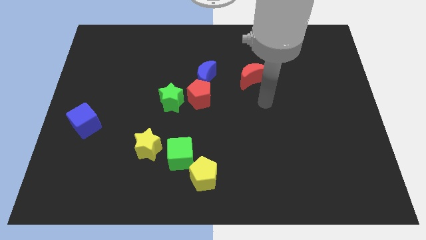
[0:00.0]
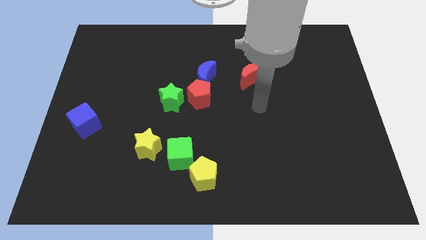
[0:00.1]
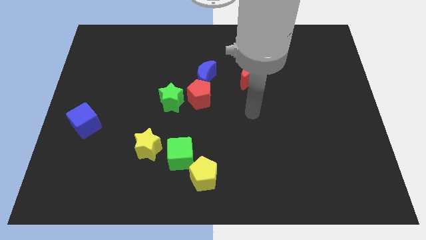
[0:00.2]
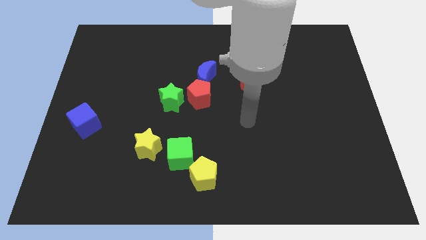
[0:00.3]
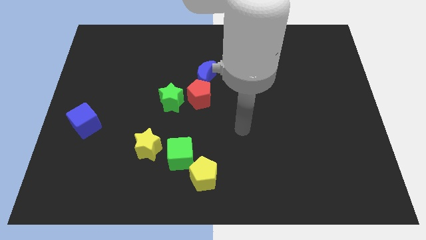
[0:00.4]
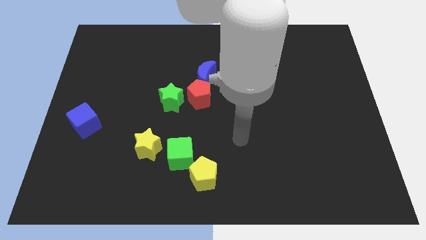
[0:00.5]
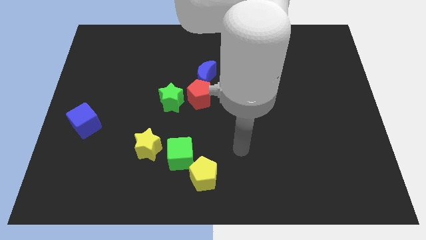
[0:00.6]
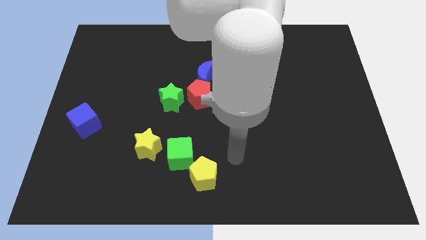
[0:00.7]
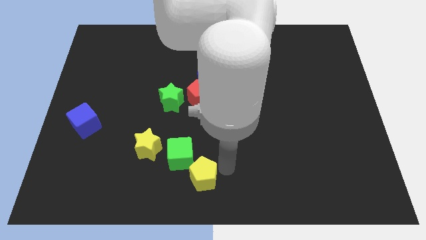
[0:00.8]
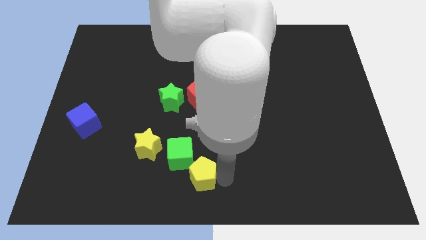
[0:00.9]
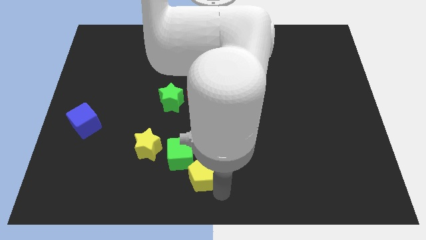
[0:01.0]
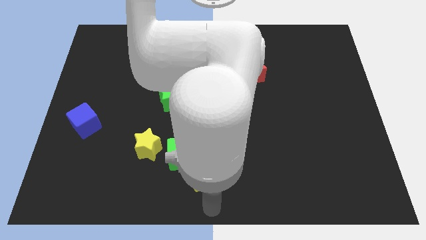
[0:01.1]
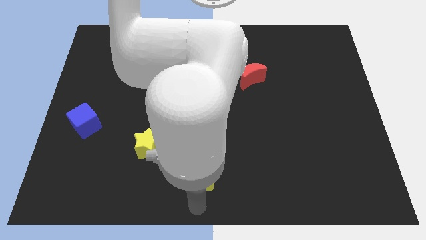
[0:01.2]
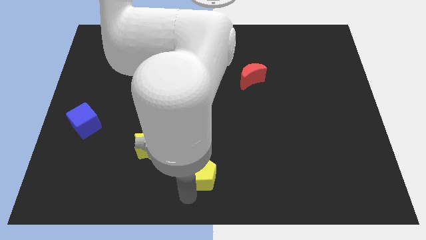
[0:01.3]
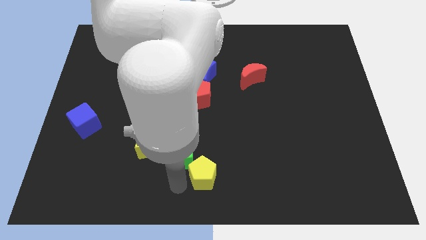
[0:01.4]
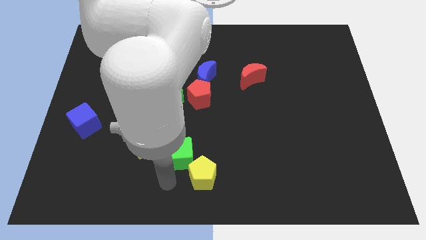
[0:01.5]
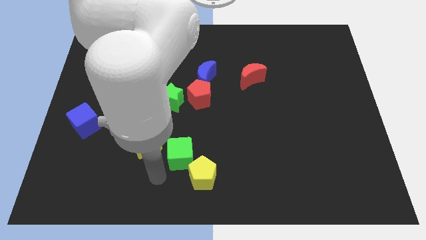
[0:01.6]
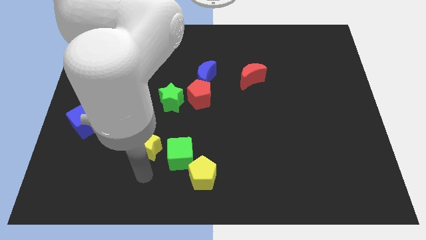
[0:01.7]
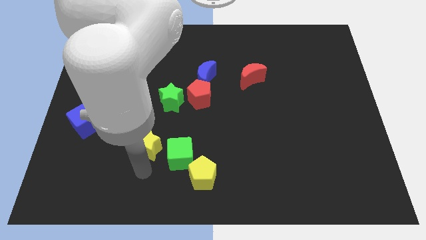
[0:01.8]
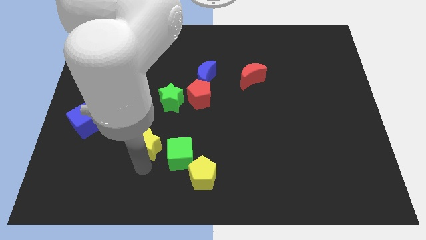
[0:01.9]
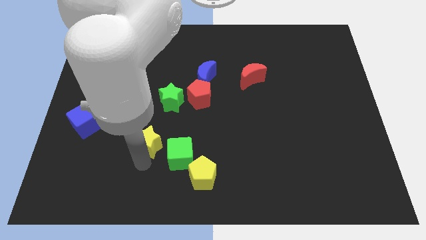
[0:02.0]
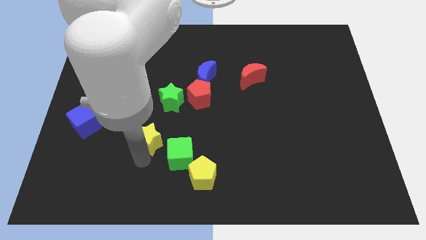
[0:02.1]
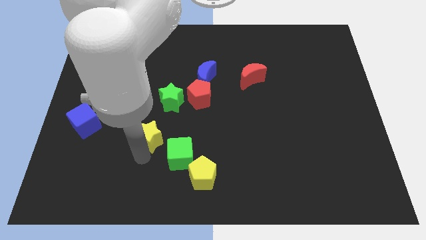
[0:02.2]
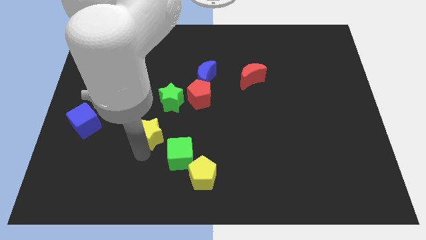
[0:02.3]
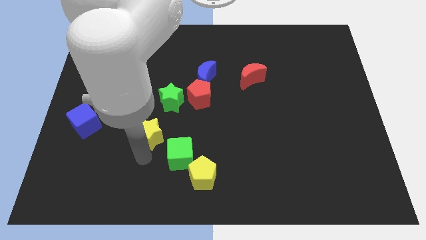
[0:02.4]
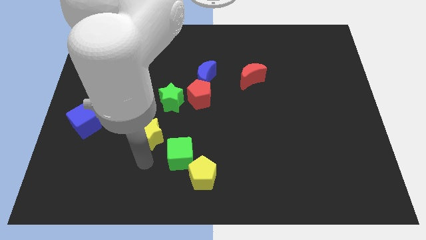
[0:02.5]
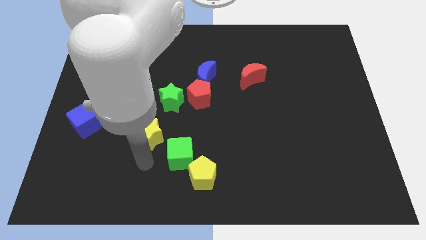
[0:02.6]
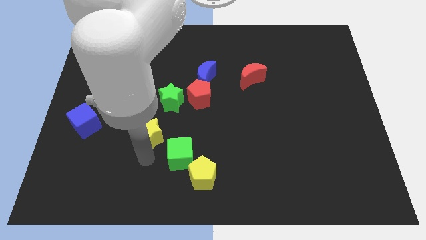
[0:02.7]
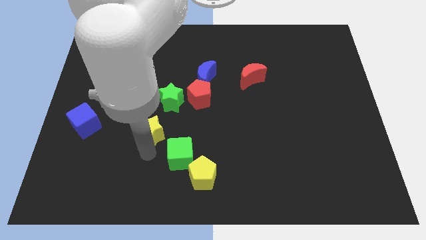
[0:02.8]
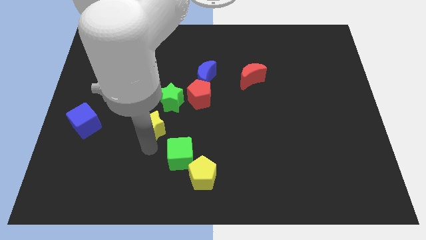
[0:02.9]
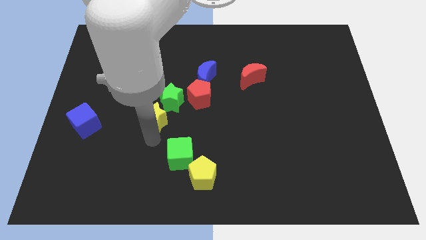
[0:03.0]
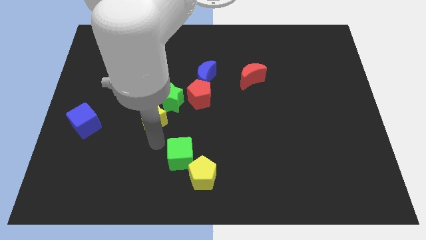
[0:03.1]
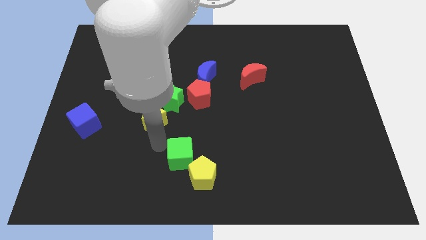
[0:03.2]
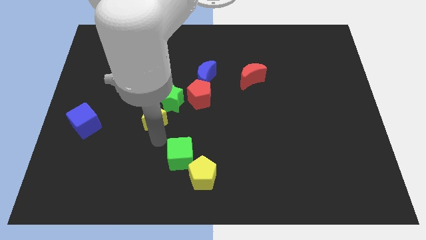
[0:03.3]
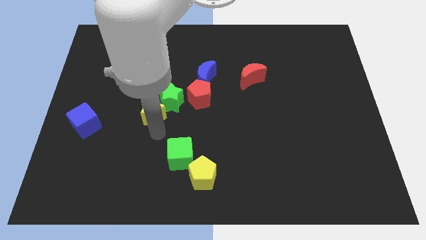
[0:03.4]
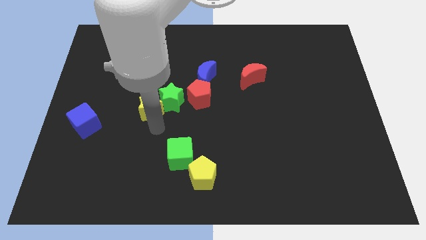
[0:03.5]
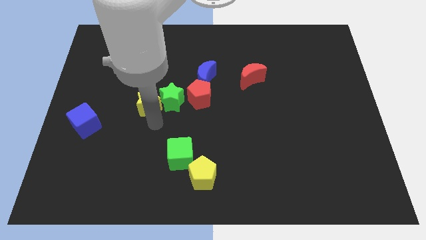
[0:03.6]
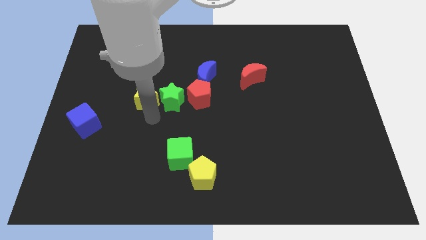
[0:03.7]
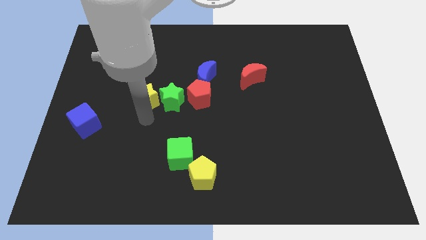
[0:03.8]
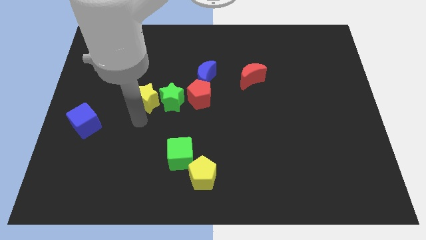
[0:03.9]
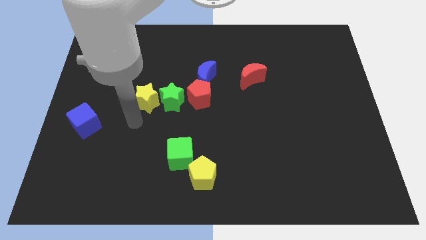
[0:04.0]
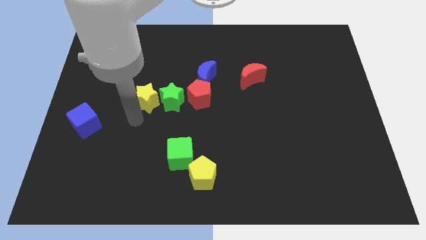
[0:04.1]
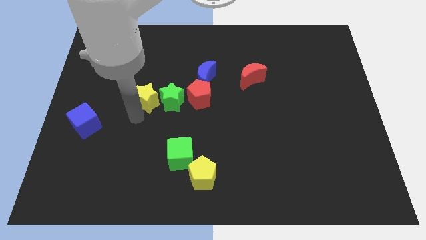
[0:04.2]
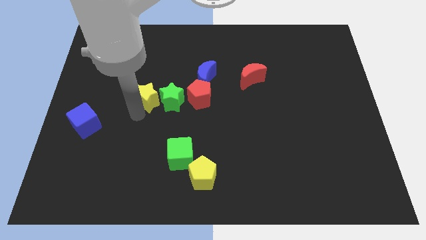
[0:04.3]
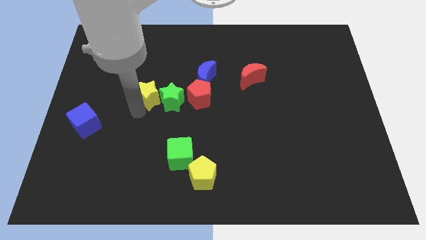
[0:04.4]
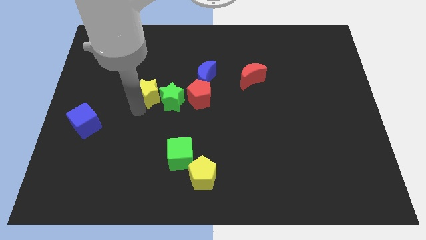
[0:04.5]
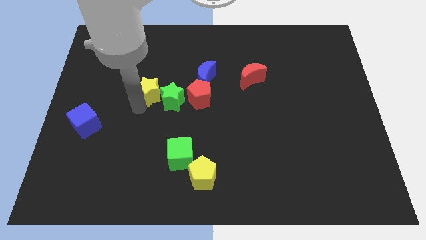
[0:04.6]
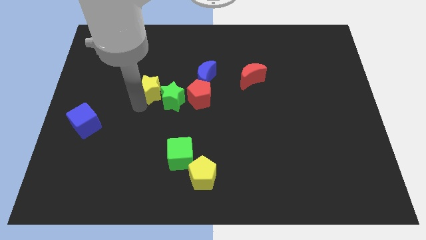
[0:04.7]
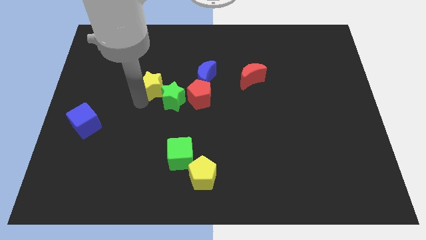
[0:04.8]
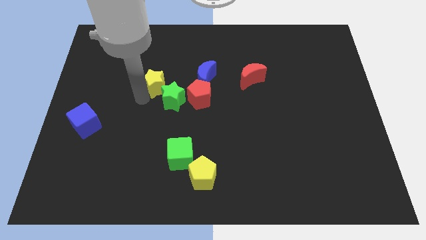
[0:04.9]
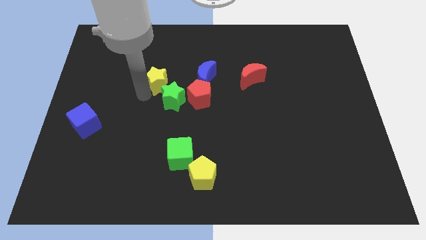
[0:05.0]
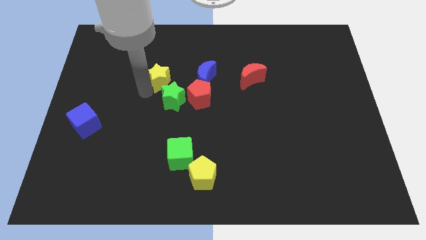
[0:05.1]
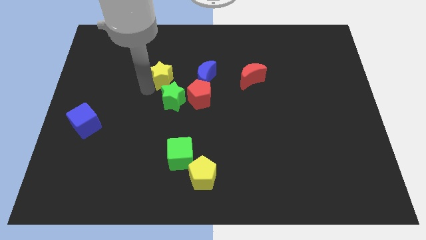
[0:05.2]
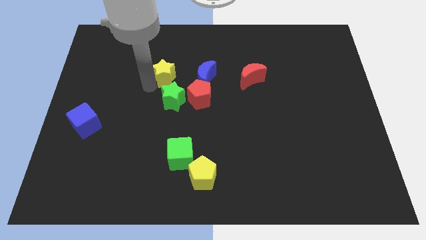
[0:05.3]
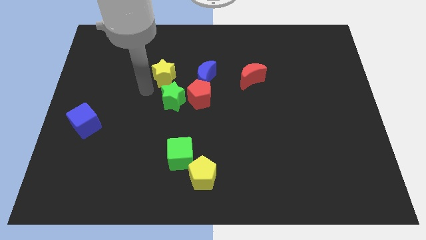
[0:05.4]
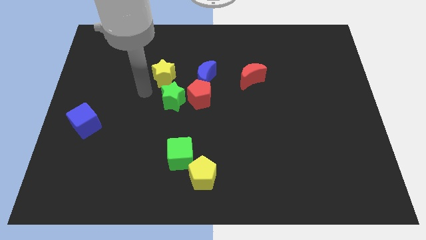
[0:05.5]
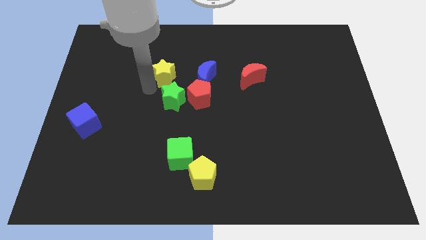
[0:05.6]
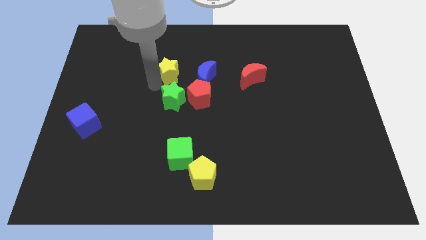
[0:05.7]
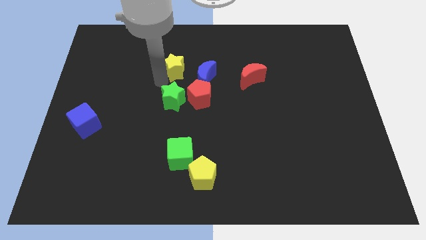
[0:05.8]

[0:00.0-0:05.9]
move the yellow star to the top left side of the blue moon

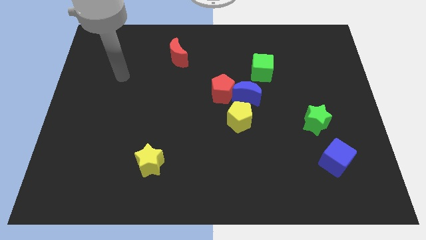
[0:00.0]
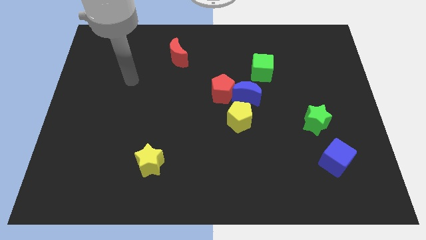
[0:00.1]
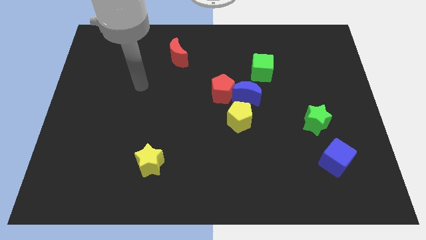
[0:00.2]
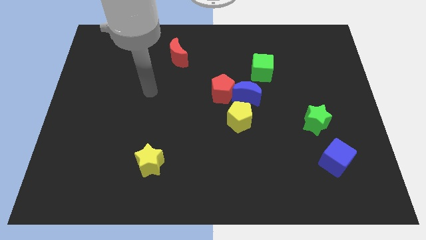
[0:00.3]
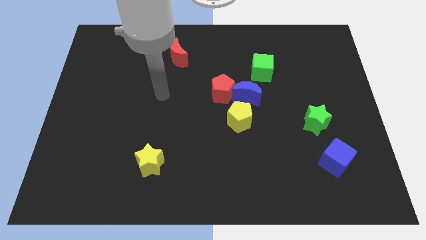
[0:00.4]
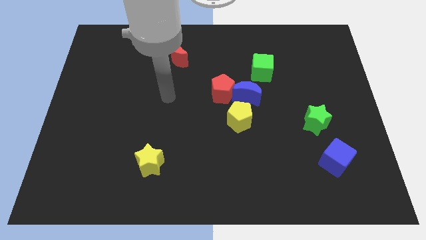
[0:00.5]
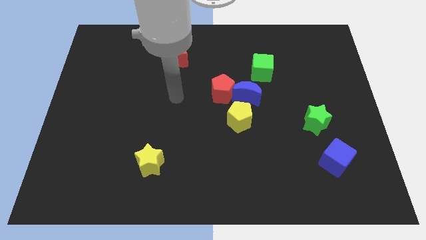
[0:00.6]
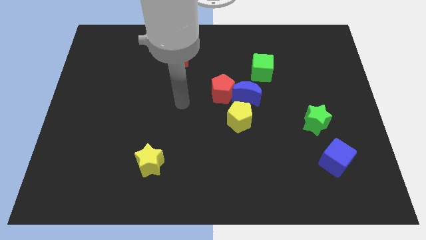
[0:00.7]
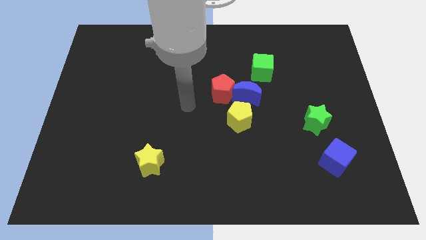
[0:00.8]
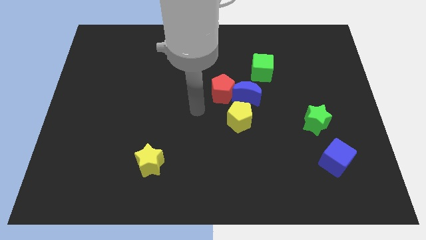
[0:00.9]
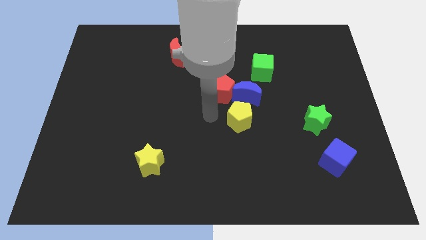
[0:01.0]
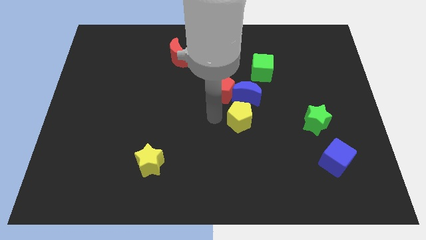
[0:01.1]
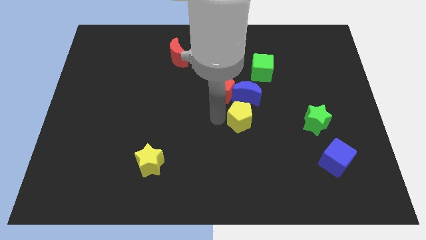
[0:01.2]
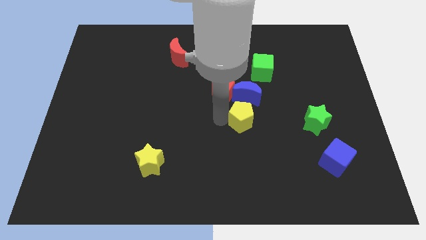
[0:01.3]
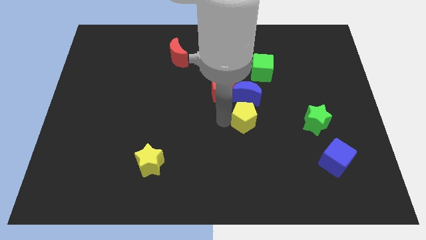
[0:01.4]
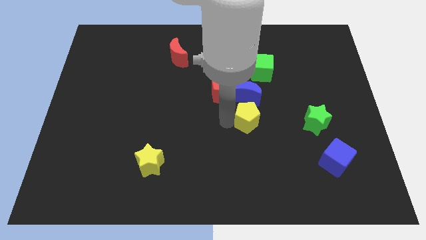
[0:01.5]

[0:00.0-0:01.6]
put the yellow pentagon just left of the green star

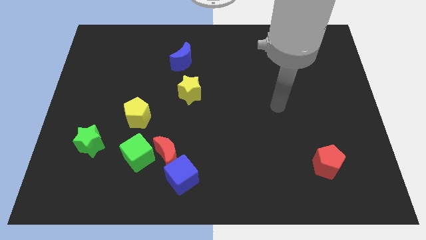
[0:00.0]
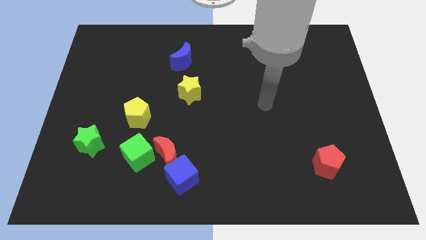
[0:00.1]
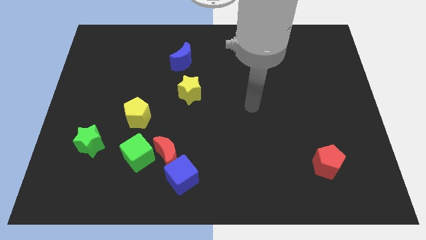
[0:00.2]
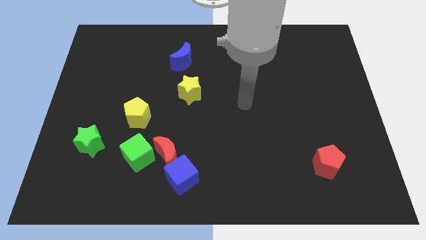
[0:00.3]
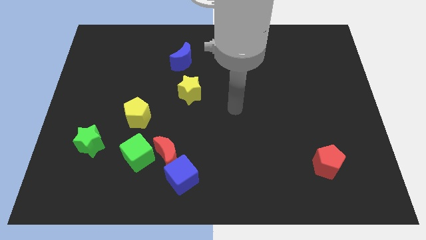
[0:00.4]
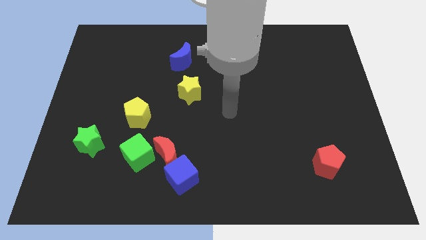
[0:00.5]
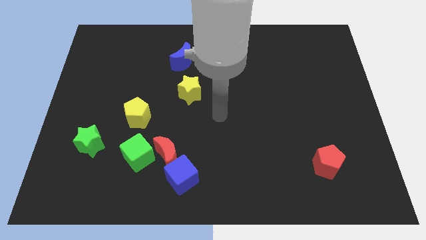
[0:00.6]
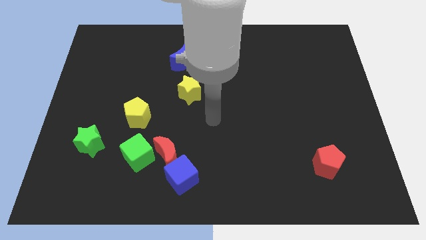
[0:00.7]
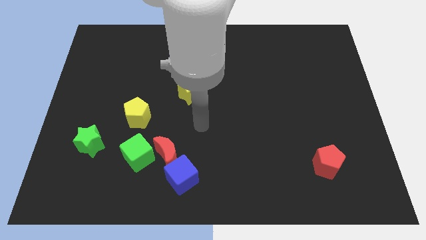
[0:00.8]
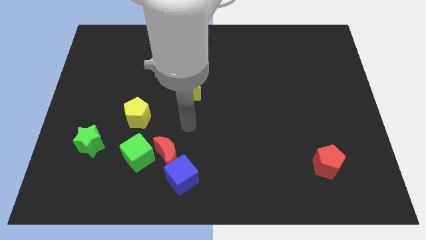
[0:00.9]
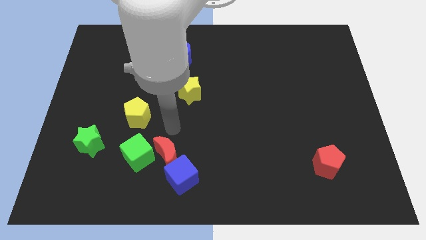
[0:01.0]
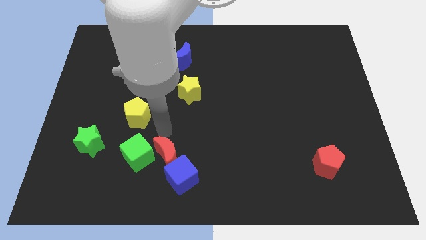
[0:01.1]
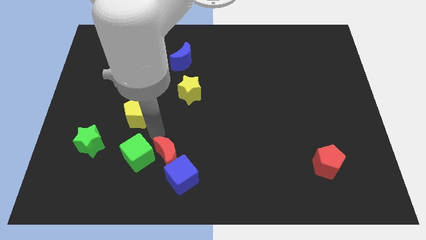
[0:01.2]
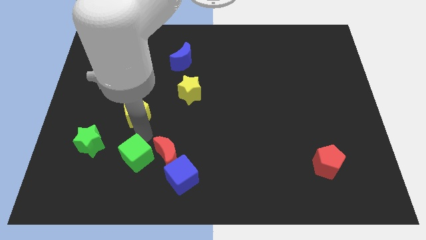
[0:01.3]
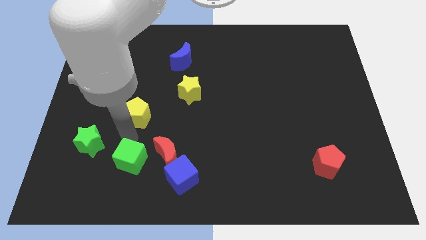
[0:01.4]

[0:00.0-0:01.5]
put the green star diagonally up and to the left of the green cube
